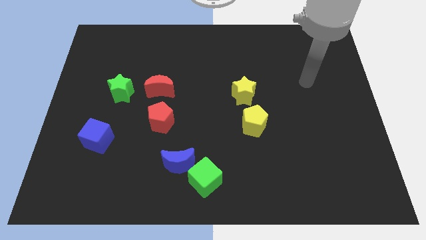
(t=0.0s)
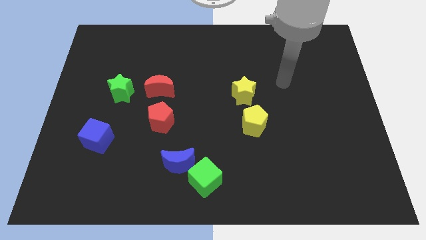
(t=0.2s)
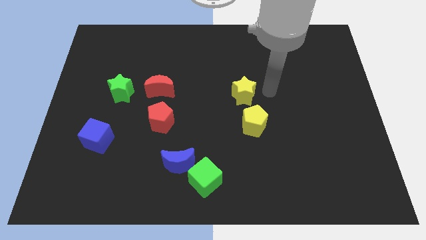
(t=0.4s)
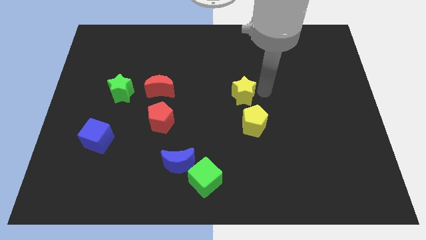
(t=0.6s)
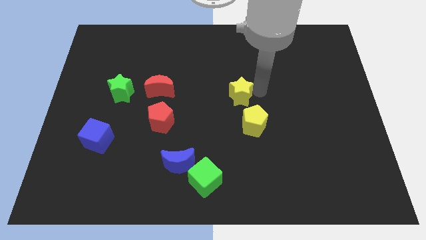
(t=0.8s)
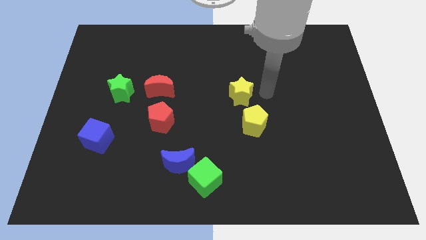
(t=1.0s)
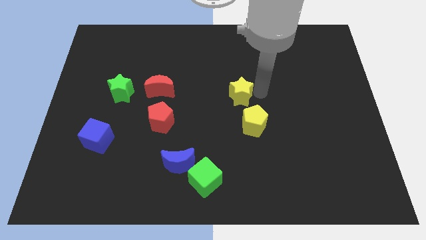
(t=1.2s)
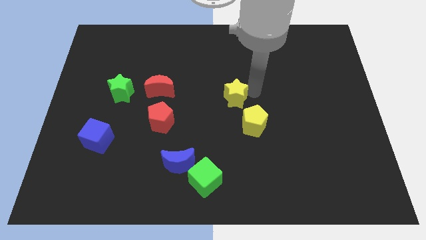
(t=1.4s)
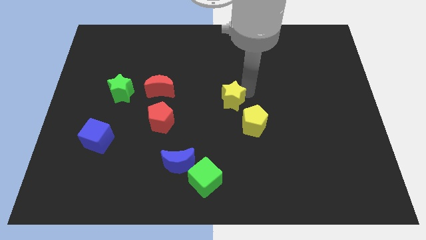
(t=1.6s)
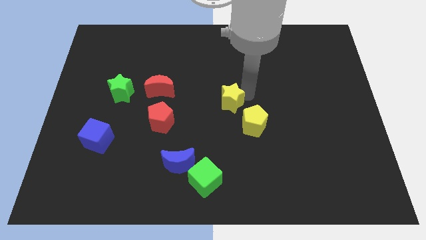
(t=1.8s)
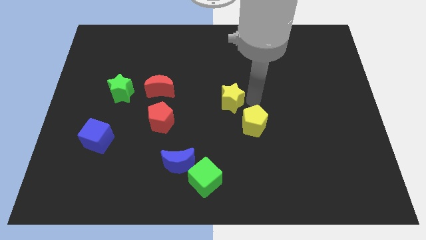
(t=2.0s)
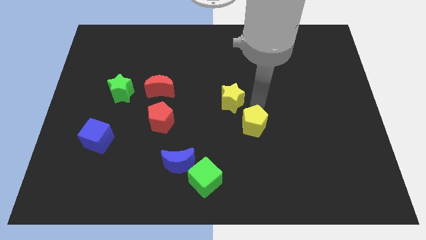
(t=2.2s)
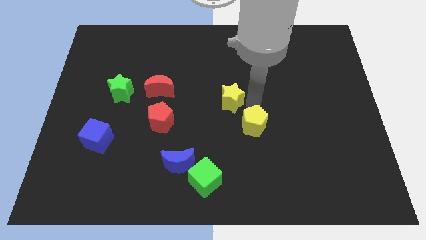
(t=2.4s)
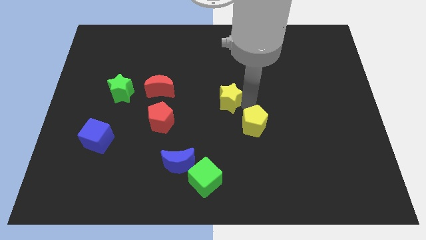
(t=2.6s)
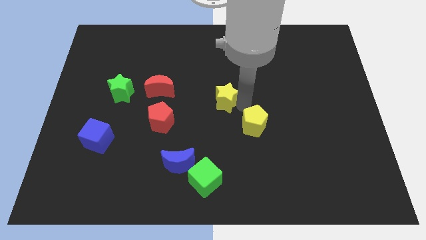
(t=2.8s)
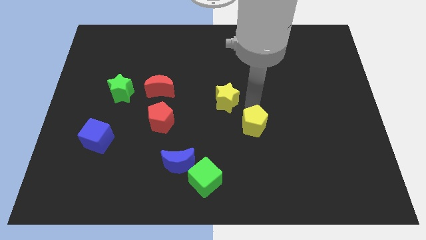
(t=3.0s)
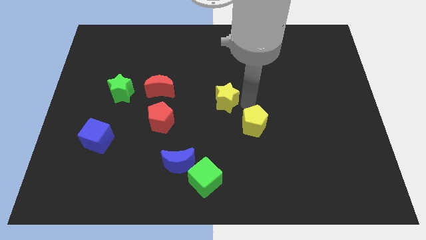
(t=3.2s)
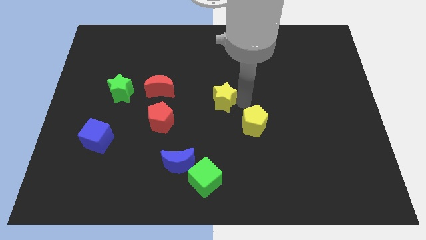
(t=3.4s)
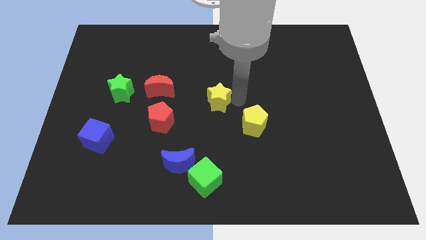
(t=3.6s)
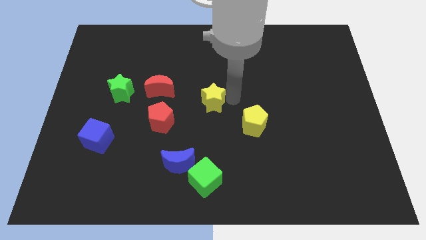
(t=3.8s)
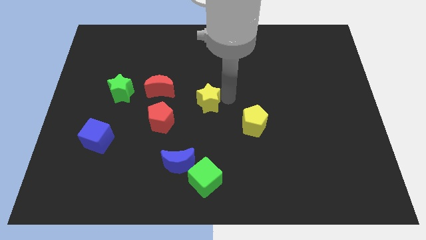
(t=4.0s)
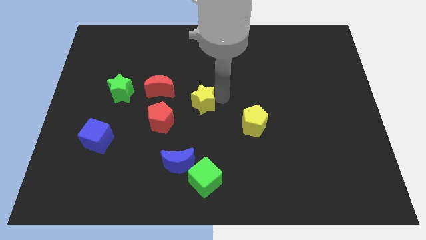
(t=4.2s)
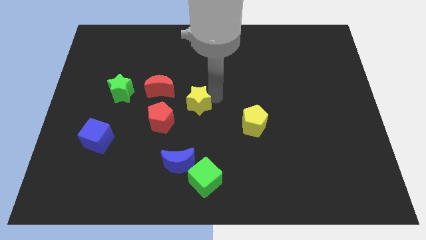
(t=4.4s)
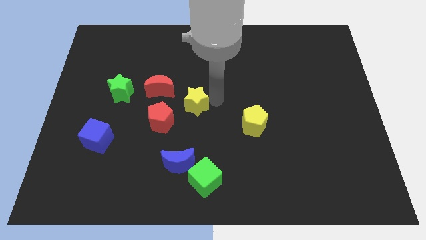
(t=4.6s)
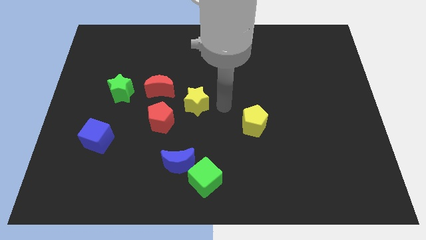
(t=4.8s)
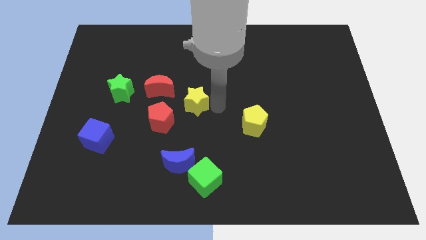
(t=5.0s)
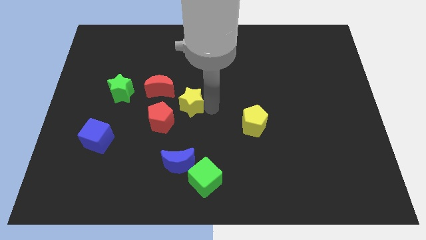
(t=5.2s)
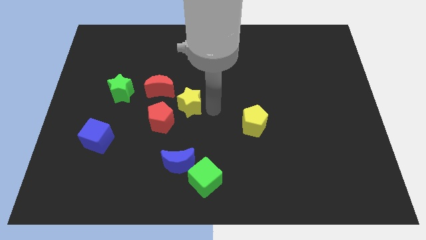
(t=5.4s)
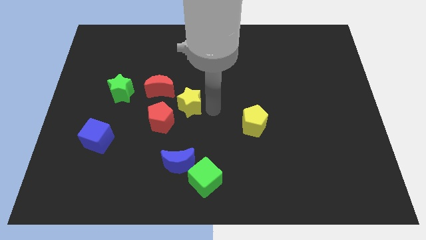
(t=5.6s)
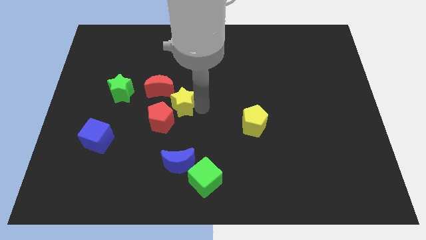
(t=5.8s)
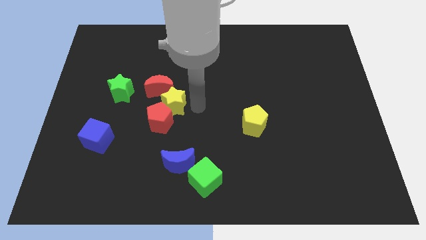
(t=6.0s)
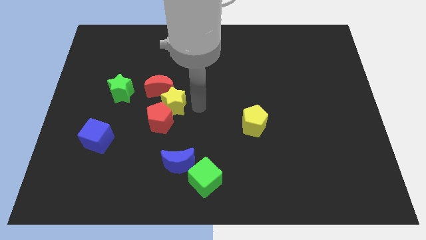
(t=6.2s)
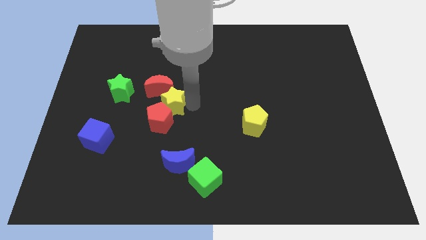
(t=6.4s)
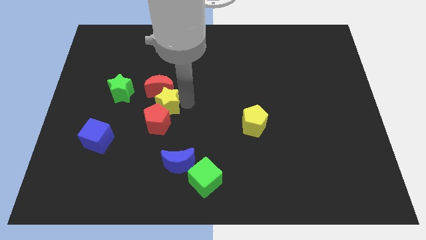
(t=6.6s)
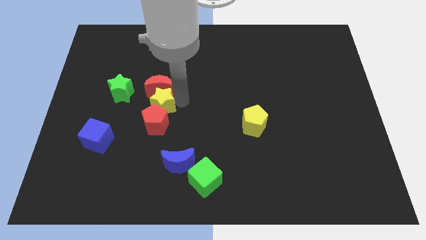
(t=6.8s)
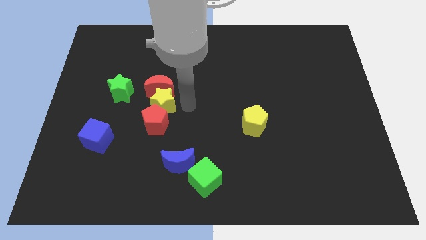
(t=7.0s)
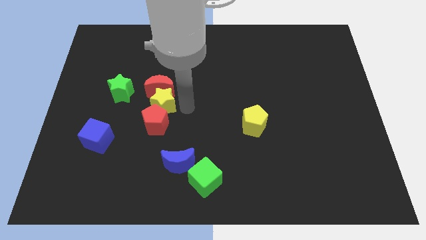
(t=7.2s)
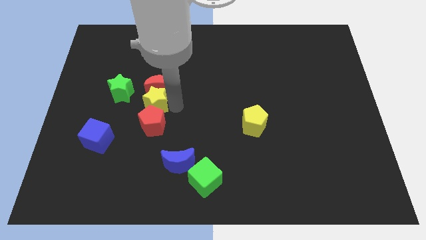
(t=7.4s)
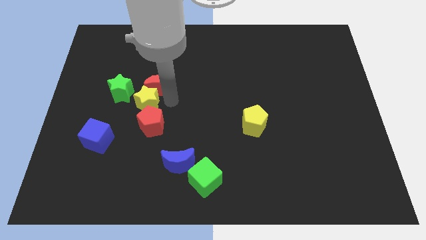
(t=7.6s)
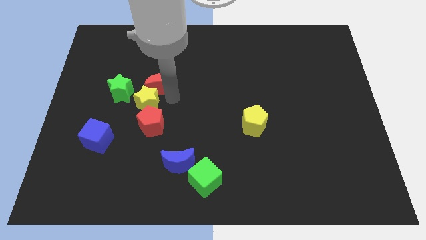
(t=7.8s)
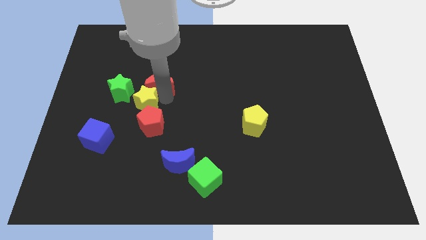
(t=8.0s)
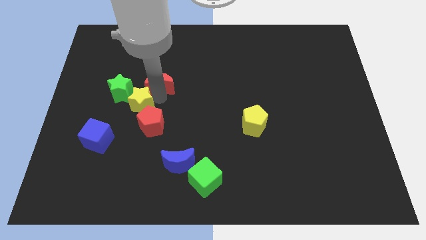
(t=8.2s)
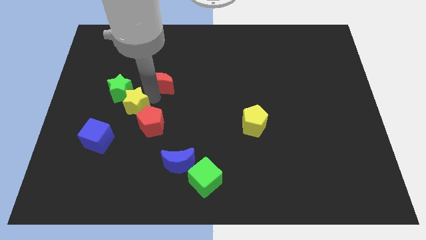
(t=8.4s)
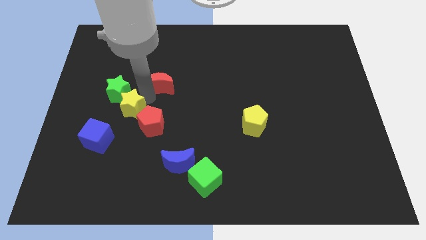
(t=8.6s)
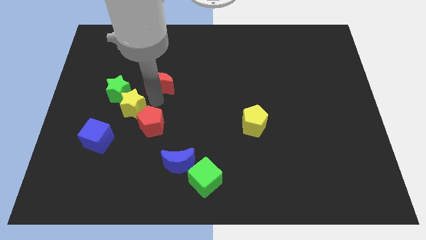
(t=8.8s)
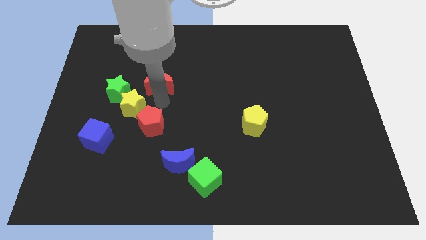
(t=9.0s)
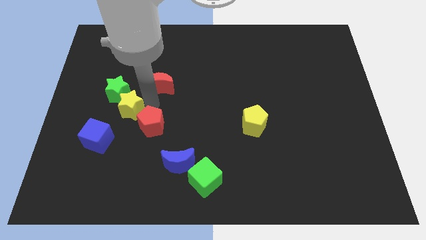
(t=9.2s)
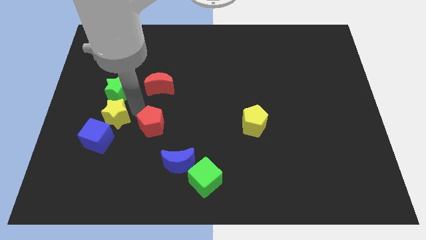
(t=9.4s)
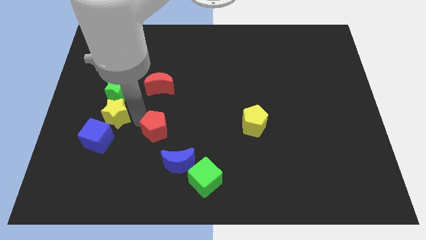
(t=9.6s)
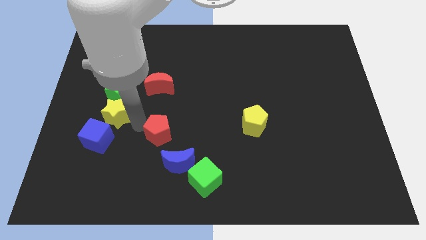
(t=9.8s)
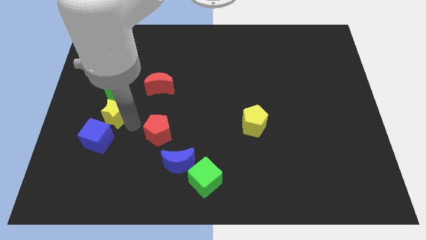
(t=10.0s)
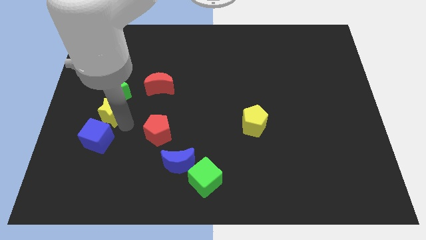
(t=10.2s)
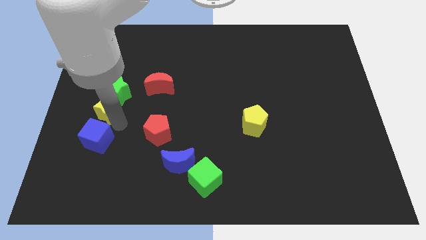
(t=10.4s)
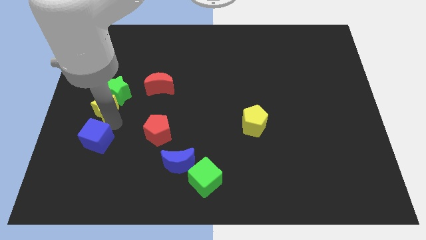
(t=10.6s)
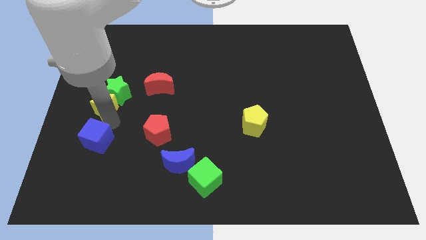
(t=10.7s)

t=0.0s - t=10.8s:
slide the yellow star to the left side
